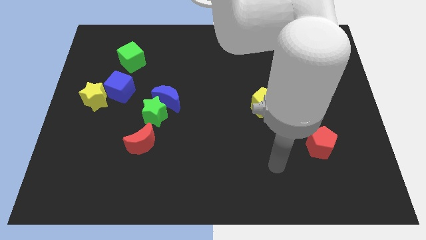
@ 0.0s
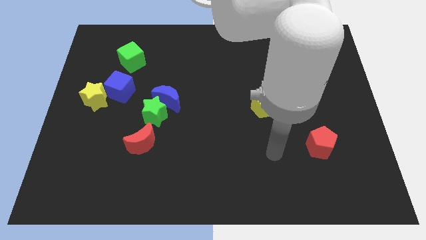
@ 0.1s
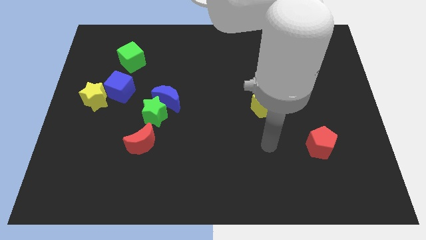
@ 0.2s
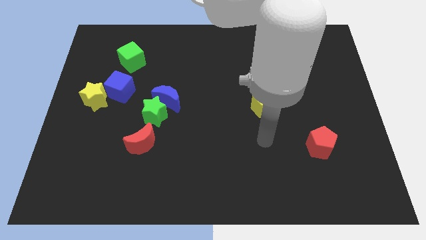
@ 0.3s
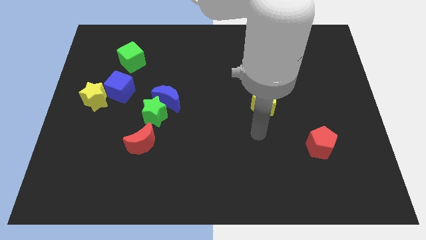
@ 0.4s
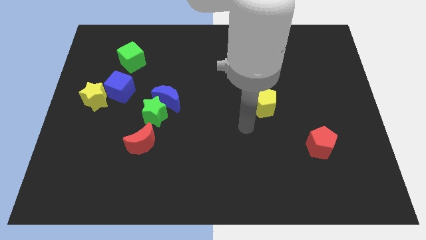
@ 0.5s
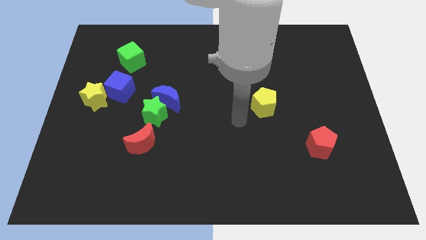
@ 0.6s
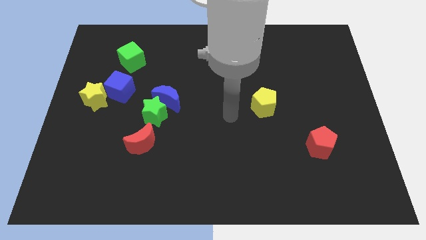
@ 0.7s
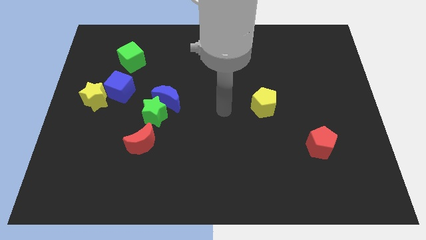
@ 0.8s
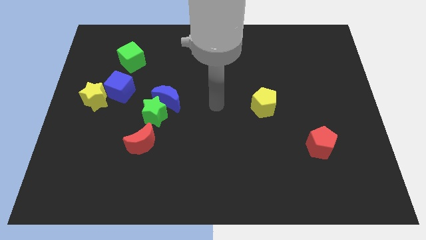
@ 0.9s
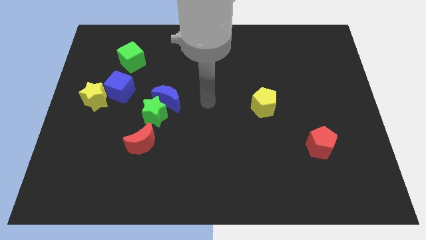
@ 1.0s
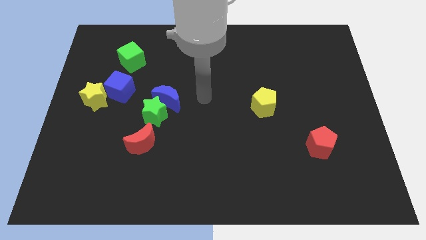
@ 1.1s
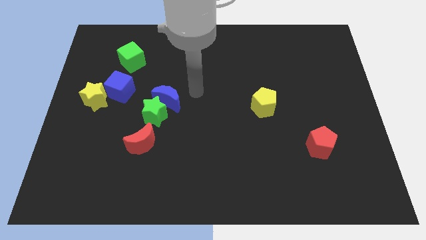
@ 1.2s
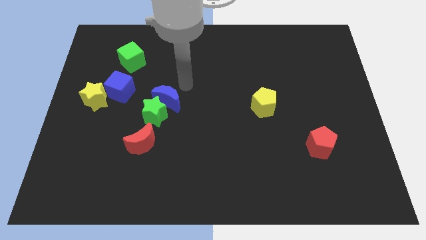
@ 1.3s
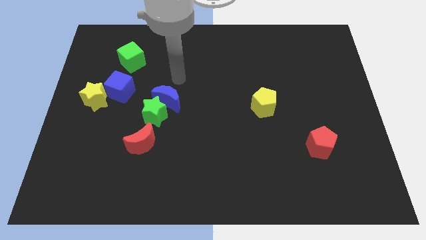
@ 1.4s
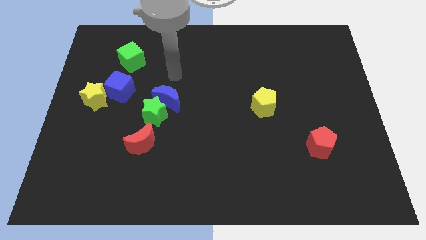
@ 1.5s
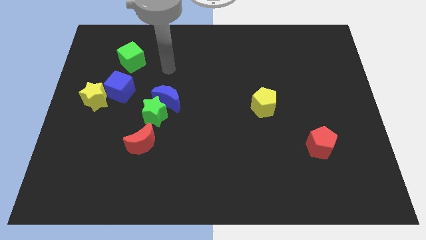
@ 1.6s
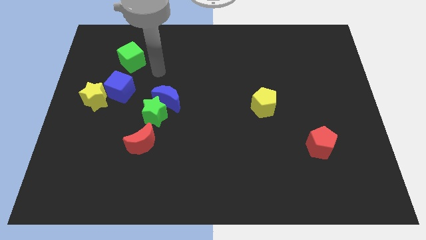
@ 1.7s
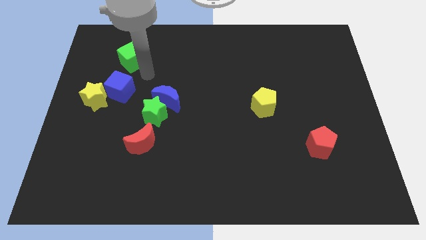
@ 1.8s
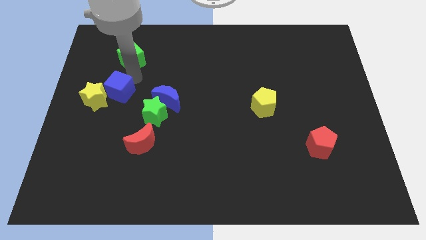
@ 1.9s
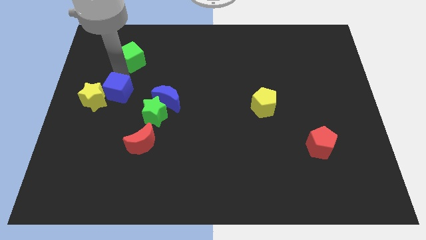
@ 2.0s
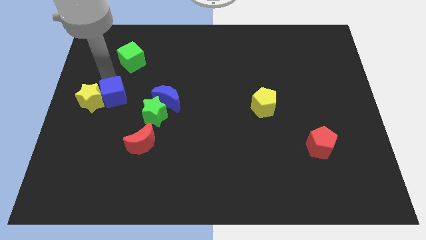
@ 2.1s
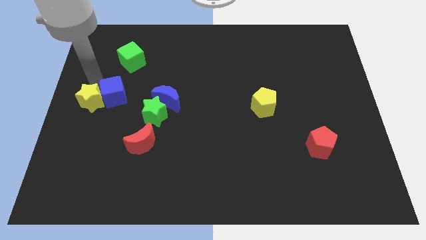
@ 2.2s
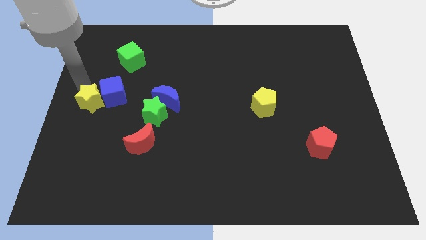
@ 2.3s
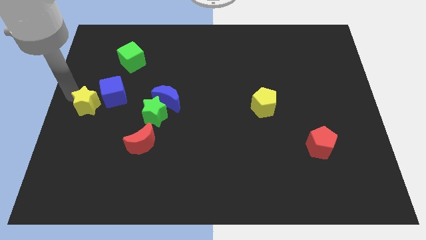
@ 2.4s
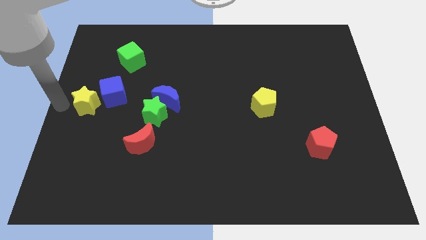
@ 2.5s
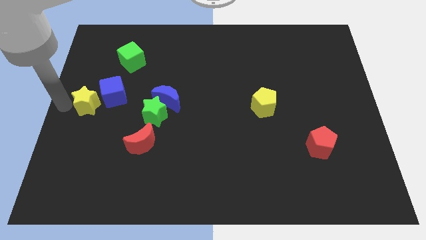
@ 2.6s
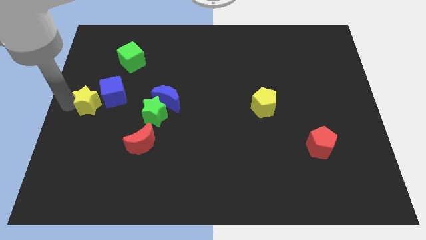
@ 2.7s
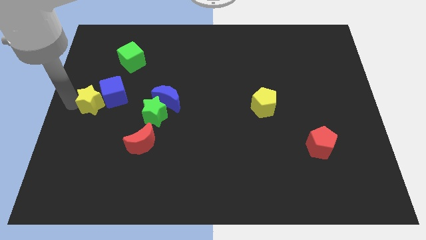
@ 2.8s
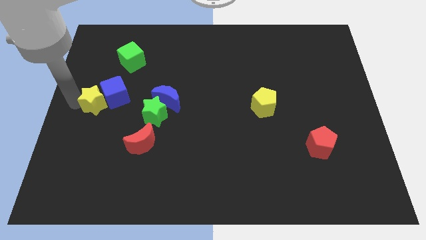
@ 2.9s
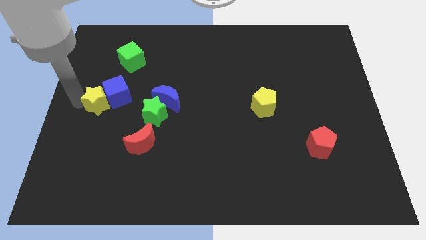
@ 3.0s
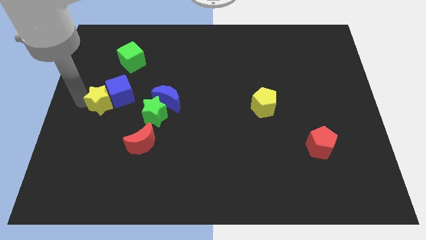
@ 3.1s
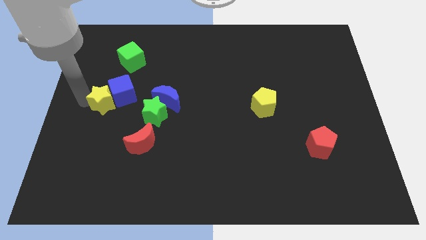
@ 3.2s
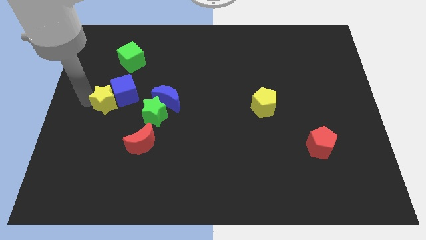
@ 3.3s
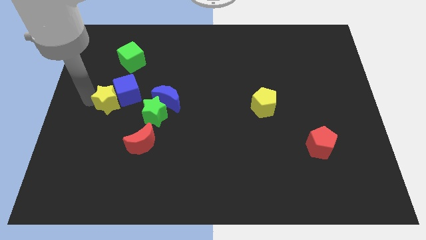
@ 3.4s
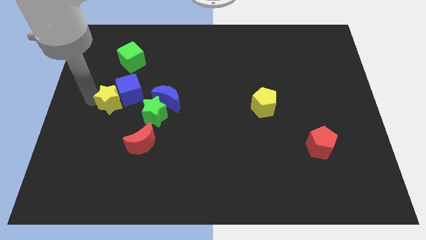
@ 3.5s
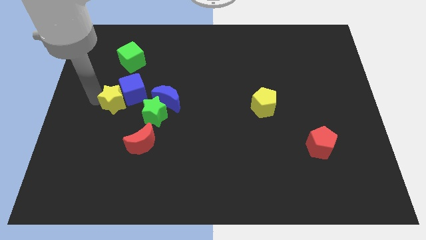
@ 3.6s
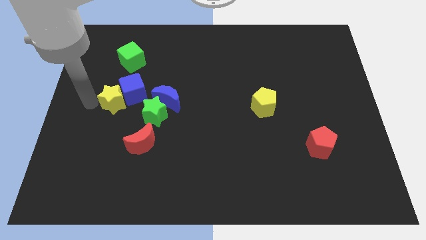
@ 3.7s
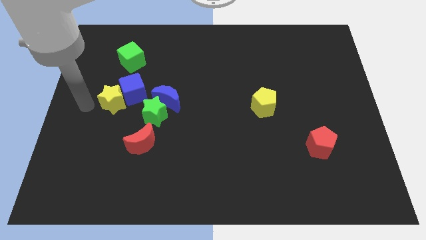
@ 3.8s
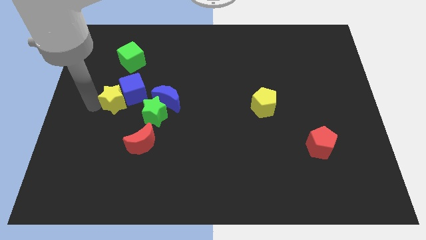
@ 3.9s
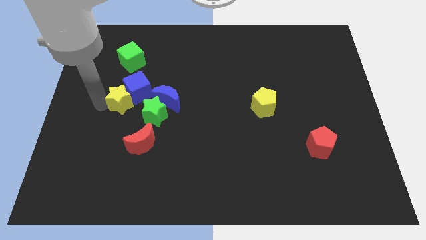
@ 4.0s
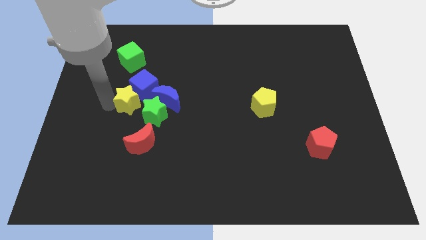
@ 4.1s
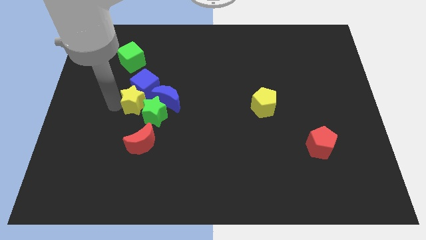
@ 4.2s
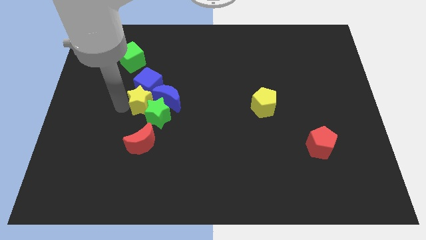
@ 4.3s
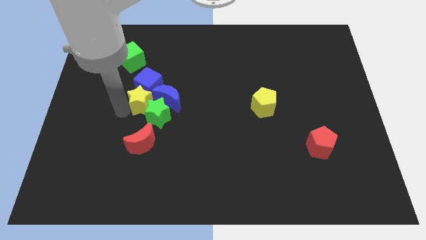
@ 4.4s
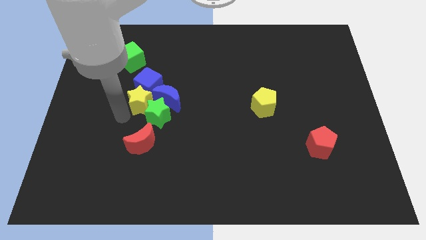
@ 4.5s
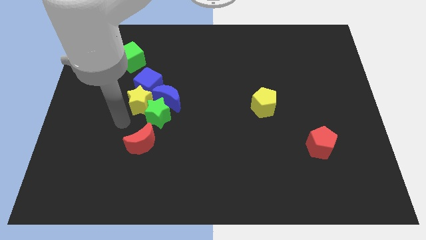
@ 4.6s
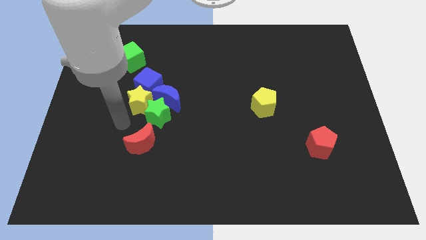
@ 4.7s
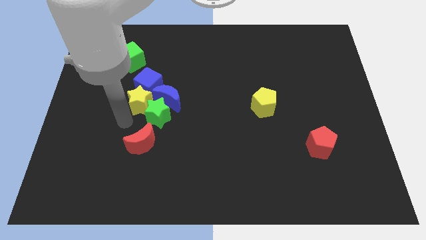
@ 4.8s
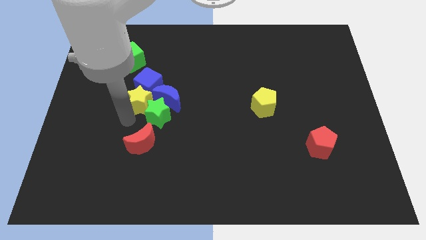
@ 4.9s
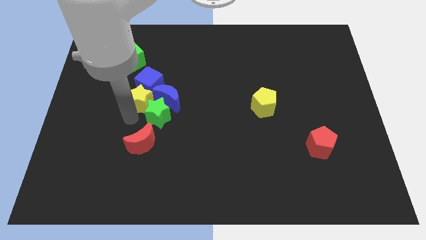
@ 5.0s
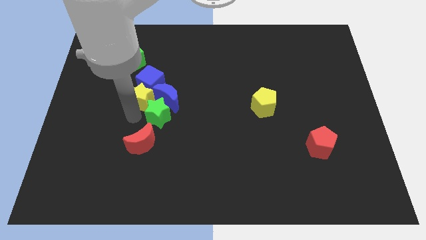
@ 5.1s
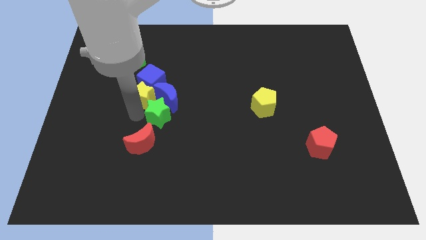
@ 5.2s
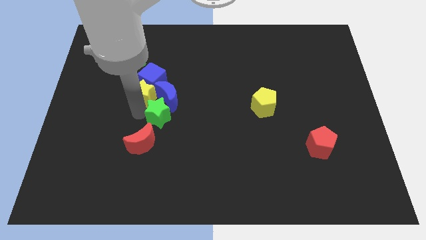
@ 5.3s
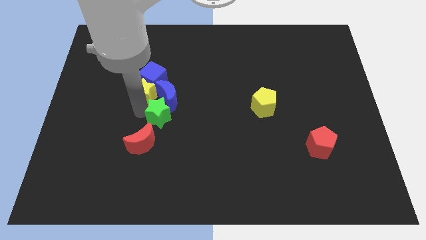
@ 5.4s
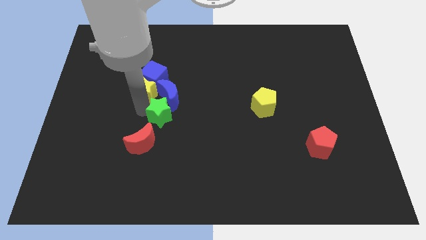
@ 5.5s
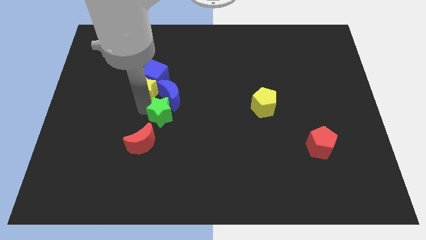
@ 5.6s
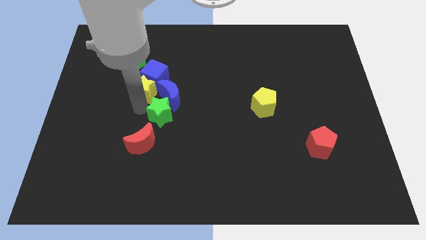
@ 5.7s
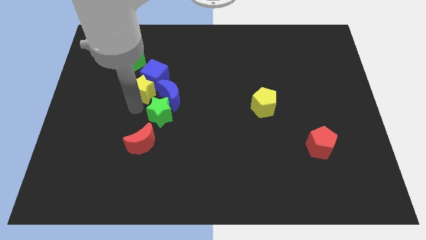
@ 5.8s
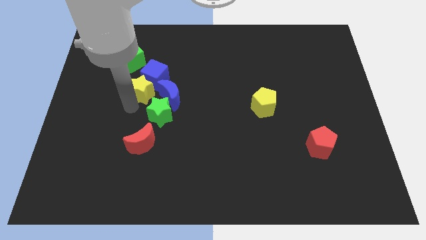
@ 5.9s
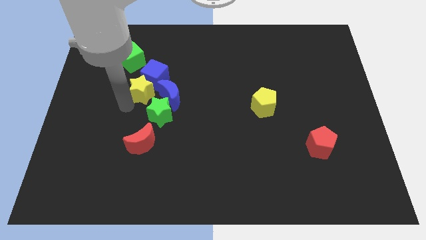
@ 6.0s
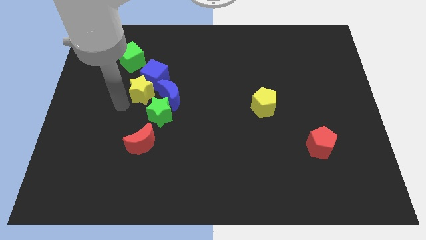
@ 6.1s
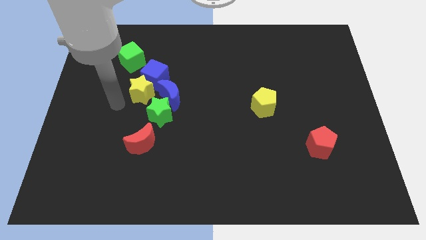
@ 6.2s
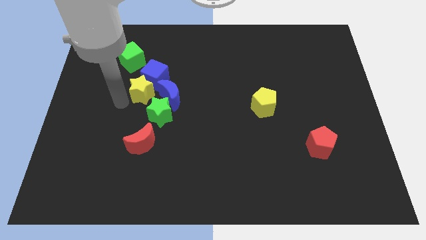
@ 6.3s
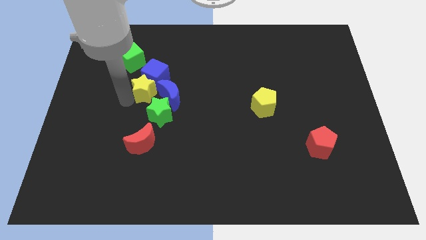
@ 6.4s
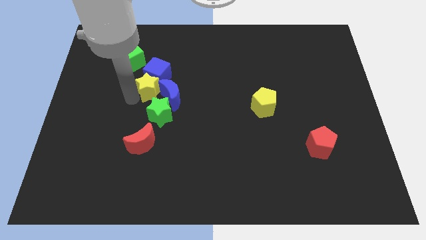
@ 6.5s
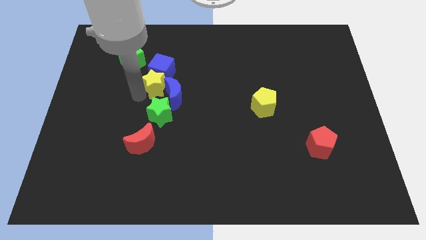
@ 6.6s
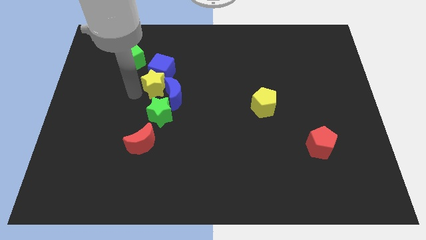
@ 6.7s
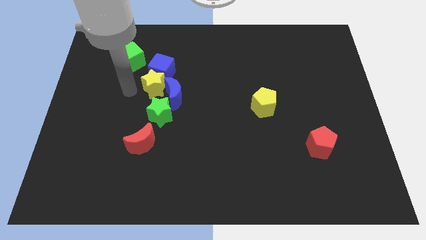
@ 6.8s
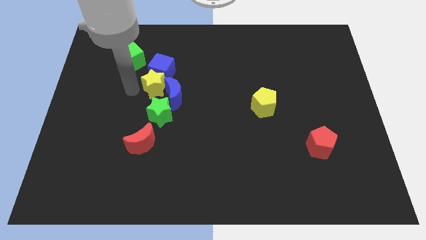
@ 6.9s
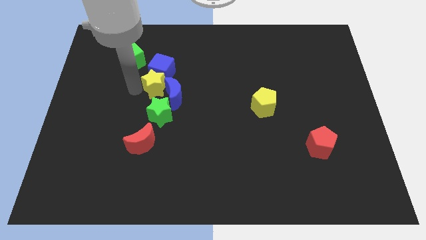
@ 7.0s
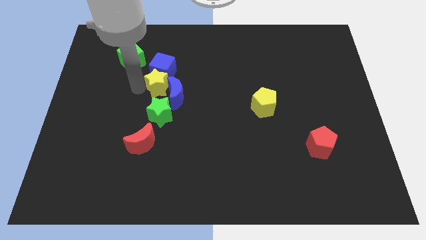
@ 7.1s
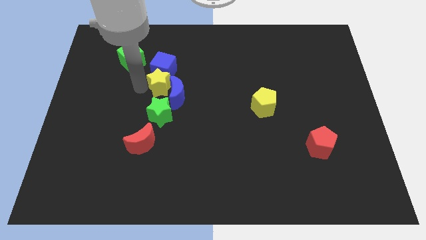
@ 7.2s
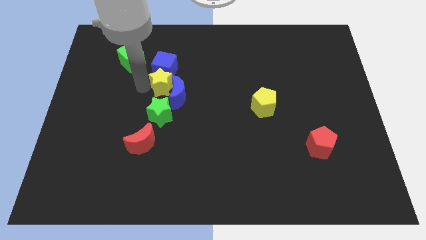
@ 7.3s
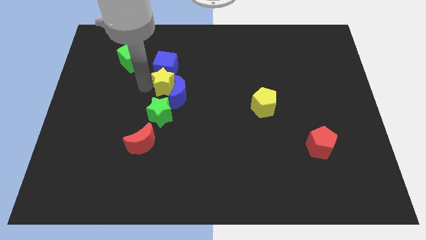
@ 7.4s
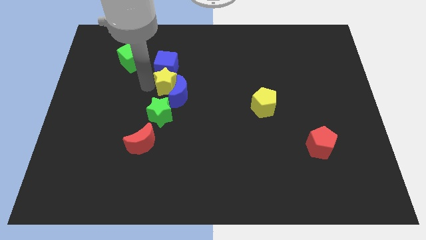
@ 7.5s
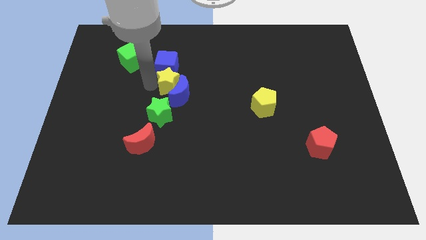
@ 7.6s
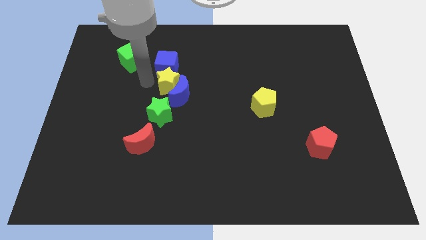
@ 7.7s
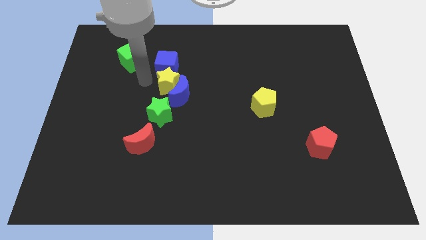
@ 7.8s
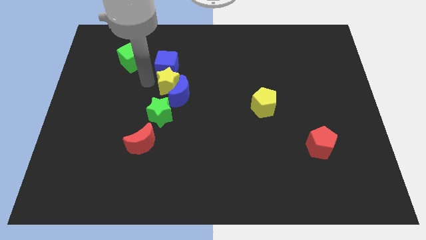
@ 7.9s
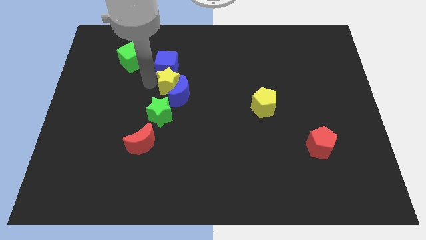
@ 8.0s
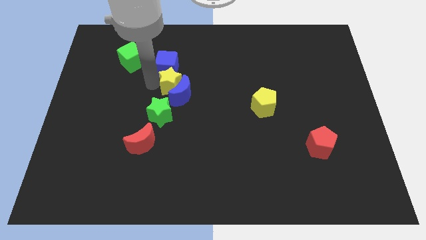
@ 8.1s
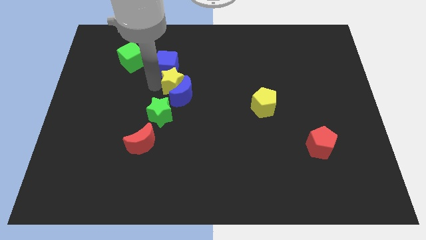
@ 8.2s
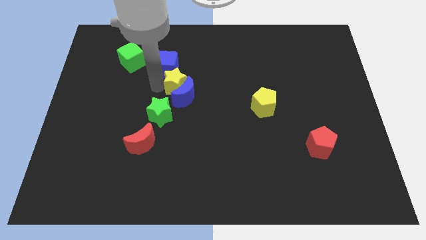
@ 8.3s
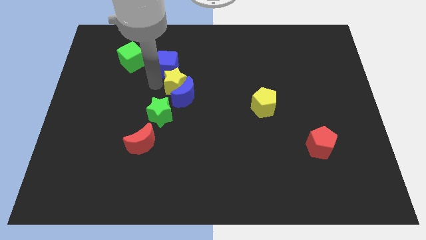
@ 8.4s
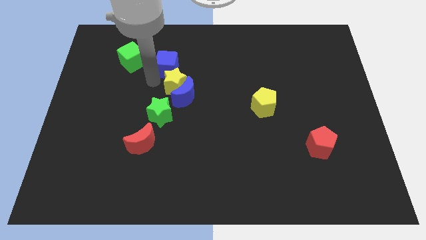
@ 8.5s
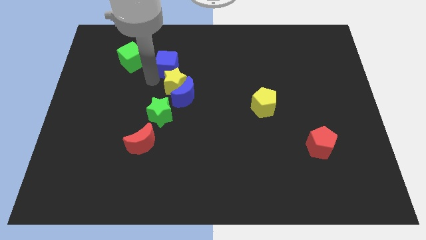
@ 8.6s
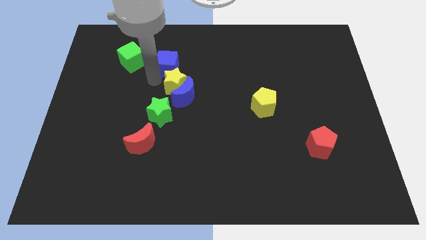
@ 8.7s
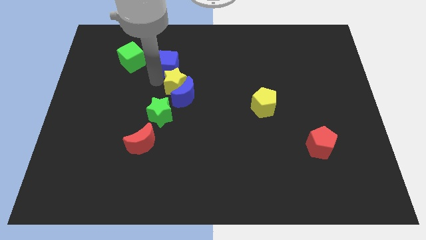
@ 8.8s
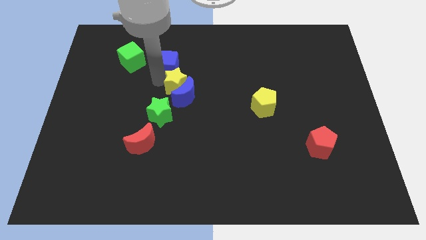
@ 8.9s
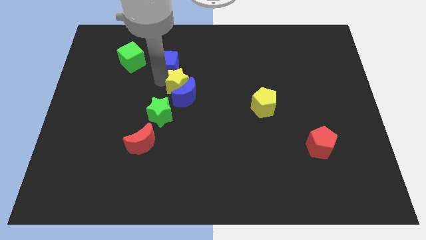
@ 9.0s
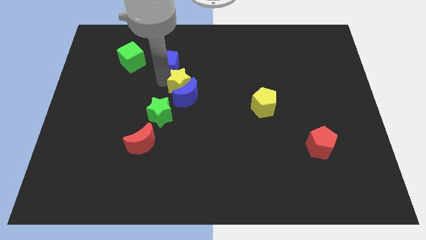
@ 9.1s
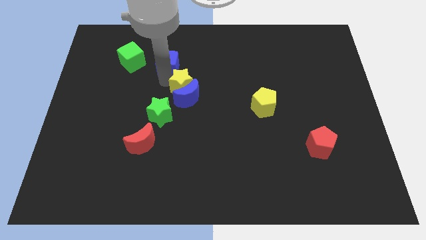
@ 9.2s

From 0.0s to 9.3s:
slide the yellow star right
